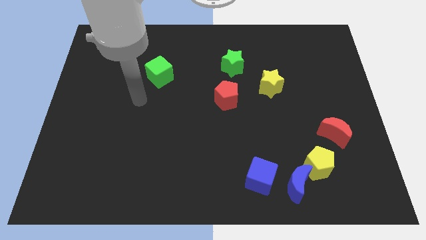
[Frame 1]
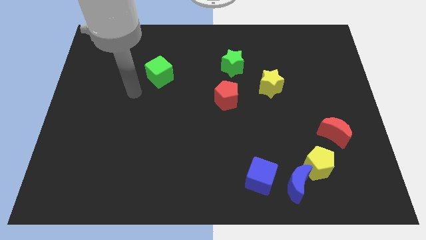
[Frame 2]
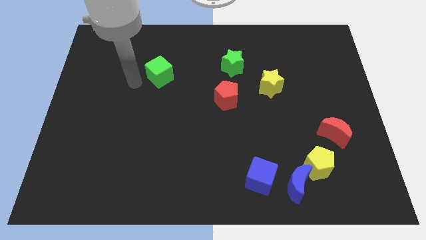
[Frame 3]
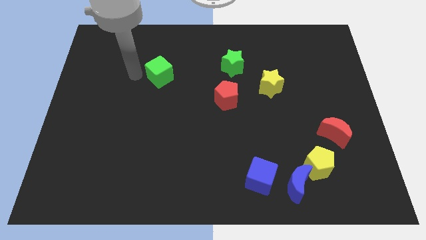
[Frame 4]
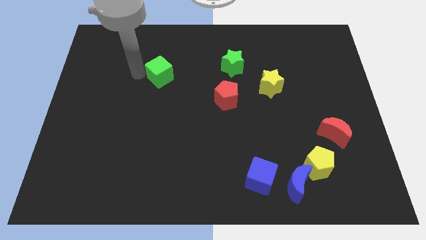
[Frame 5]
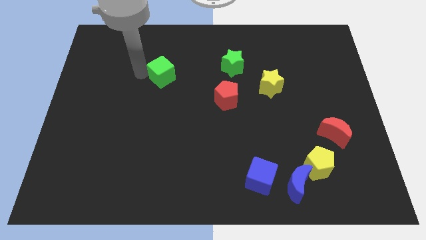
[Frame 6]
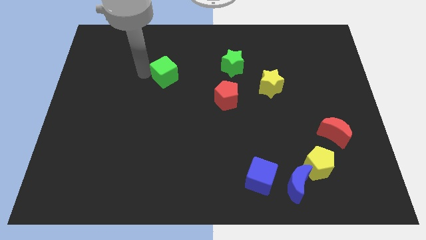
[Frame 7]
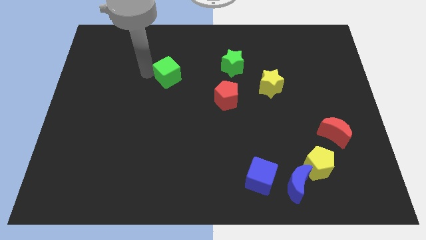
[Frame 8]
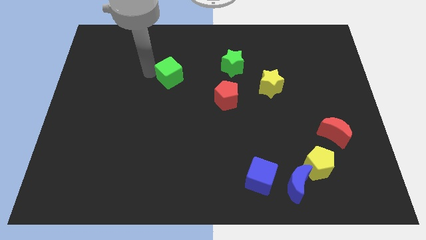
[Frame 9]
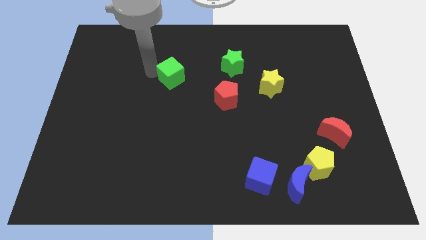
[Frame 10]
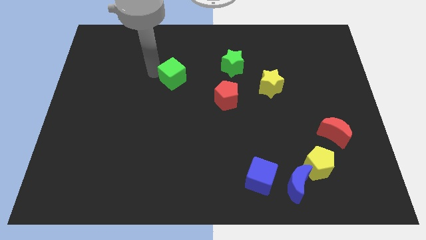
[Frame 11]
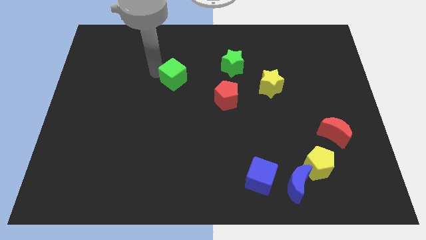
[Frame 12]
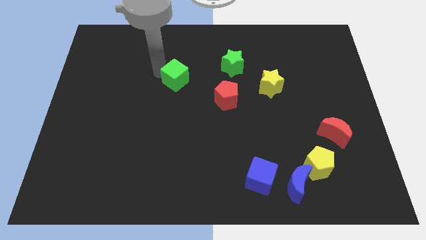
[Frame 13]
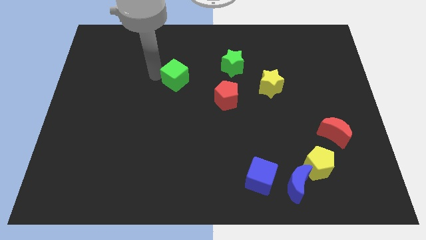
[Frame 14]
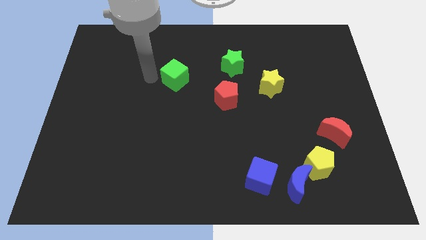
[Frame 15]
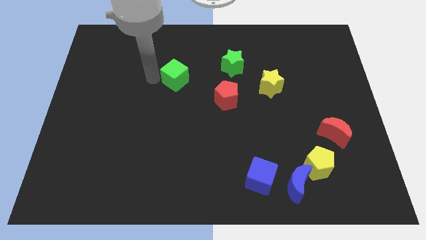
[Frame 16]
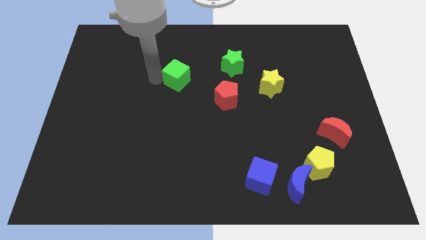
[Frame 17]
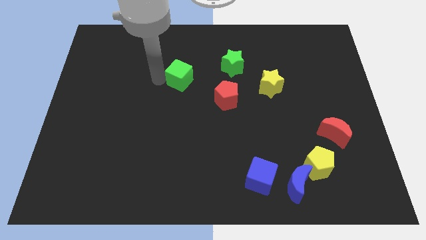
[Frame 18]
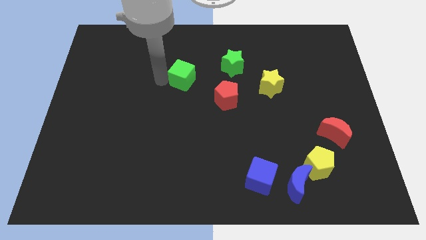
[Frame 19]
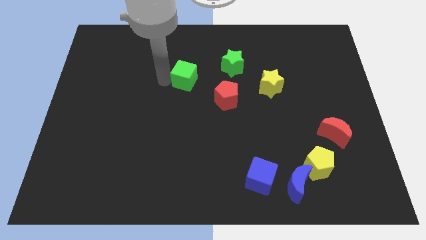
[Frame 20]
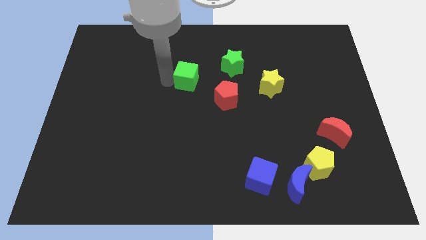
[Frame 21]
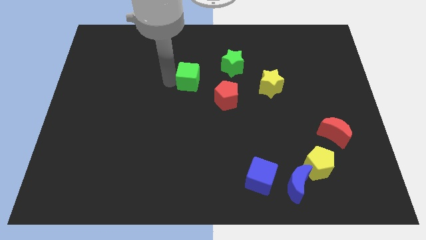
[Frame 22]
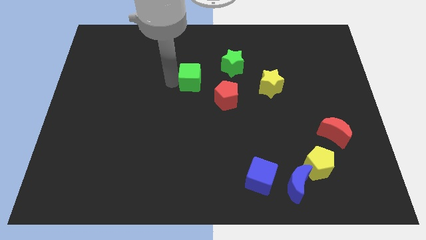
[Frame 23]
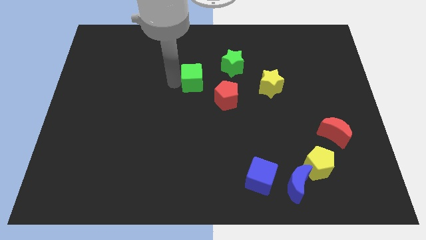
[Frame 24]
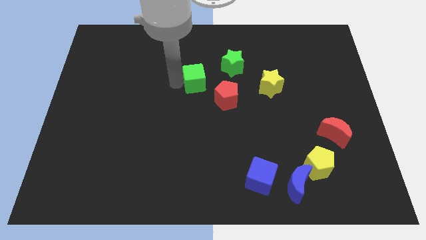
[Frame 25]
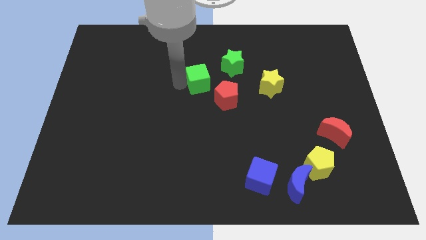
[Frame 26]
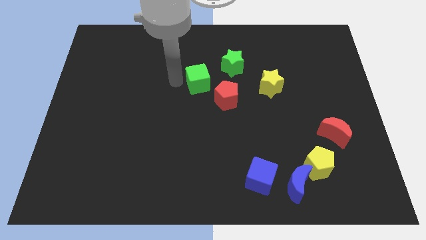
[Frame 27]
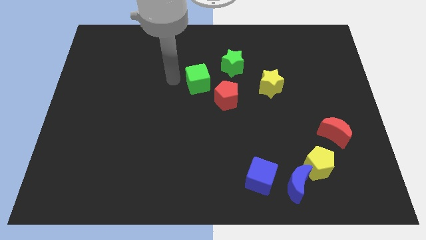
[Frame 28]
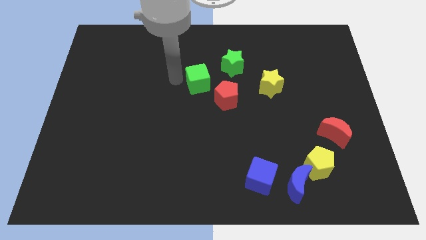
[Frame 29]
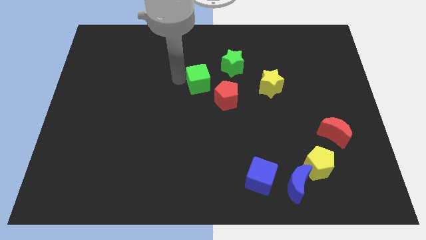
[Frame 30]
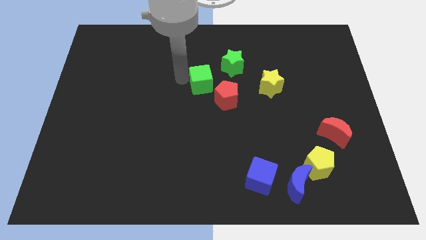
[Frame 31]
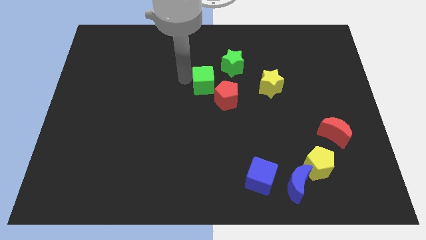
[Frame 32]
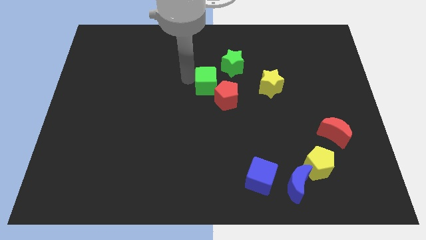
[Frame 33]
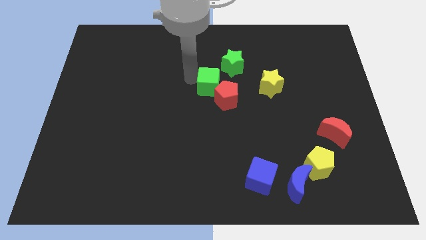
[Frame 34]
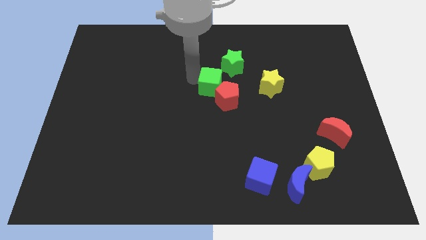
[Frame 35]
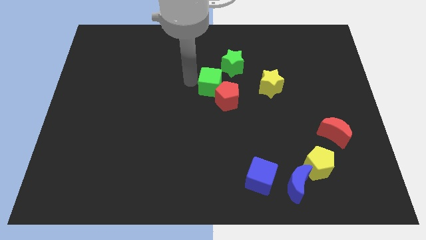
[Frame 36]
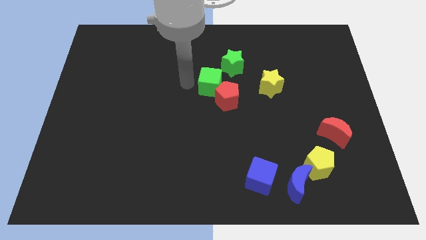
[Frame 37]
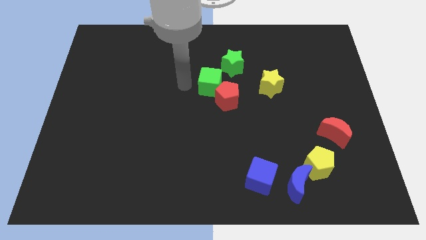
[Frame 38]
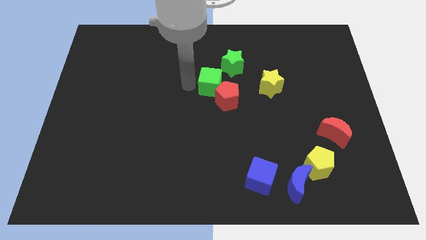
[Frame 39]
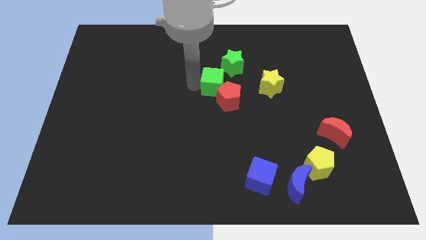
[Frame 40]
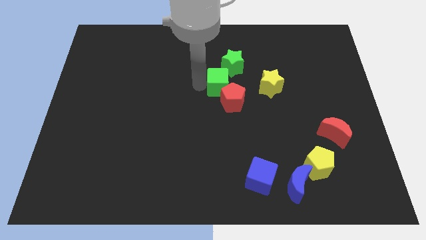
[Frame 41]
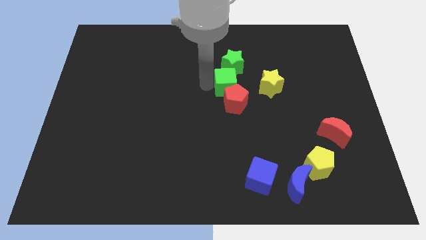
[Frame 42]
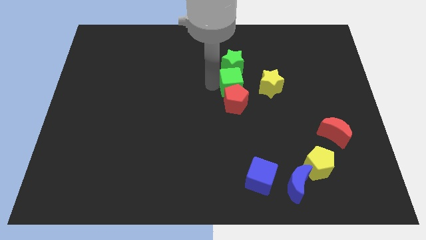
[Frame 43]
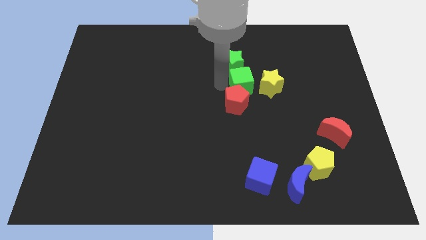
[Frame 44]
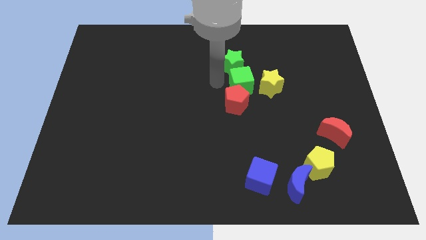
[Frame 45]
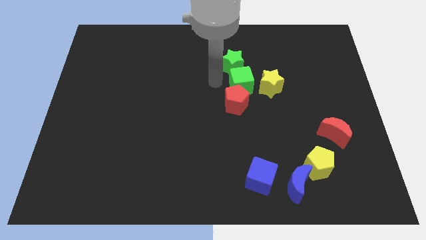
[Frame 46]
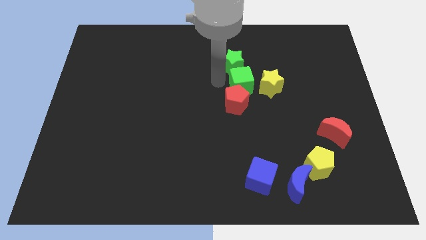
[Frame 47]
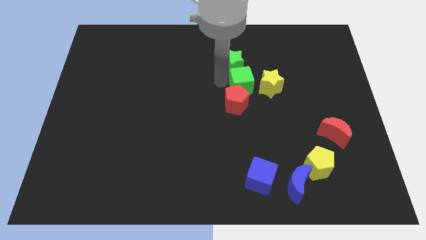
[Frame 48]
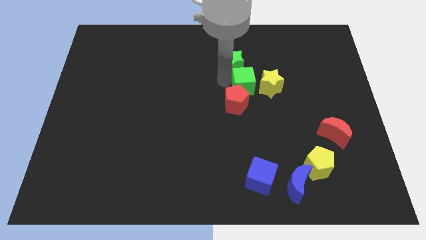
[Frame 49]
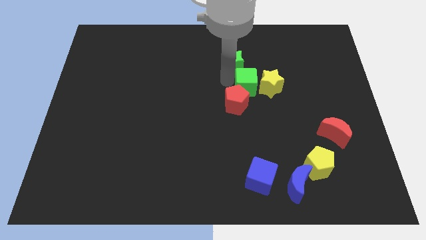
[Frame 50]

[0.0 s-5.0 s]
move the green cube next to the yellow star
